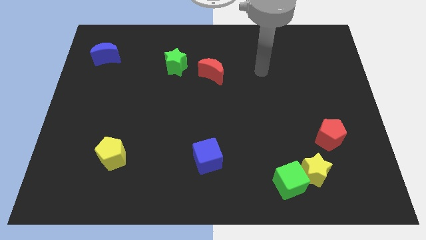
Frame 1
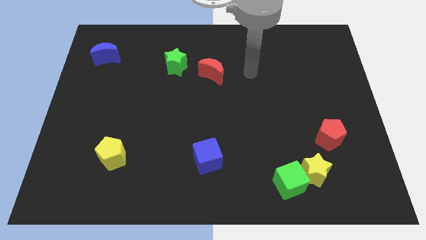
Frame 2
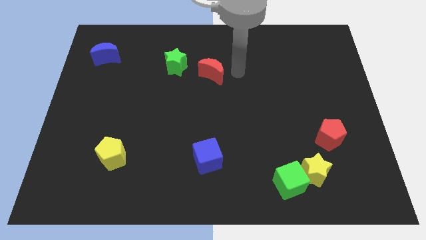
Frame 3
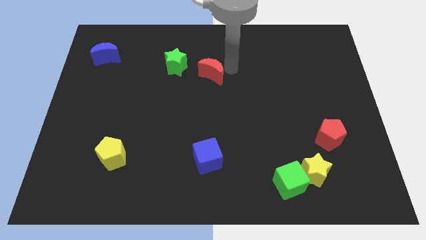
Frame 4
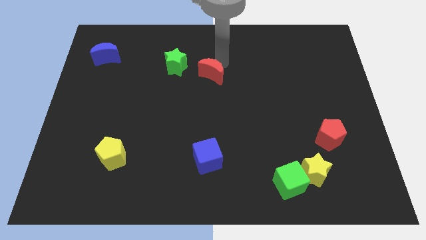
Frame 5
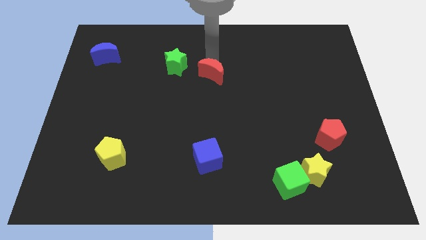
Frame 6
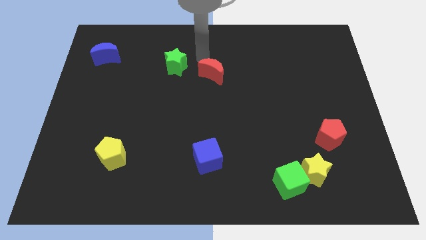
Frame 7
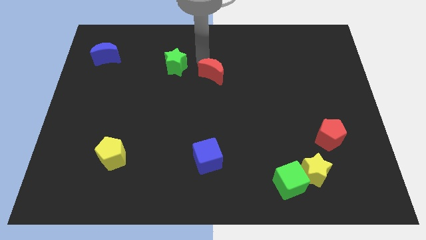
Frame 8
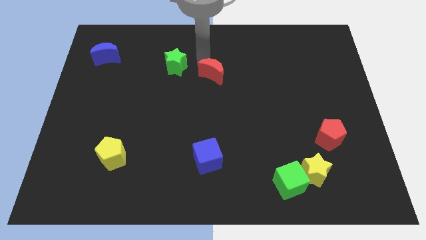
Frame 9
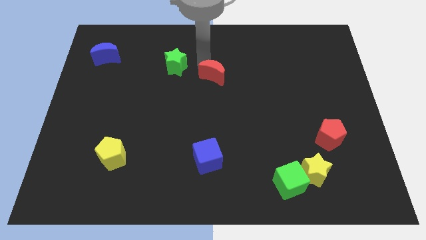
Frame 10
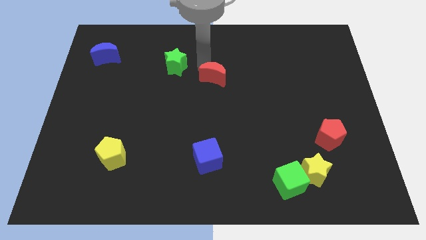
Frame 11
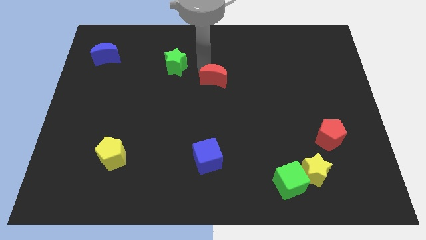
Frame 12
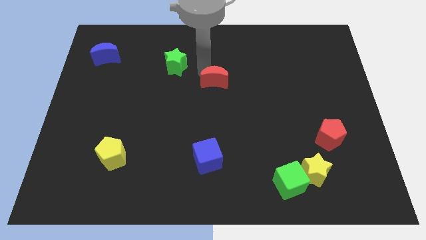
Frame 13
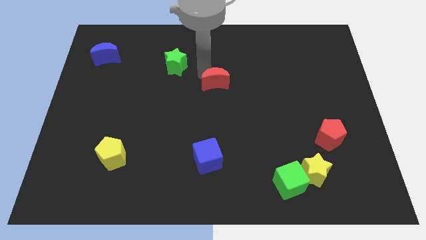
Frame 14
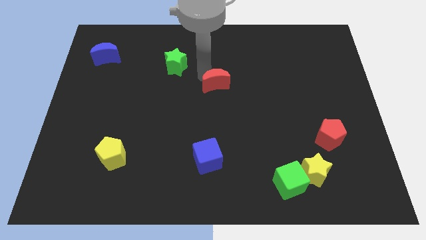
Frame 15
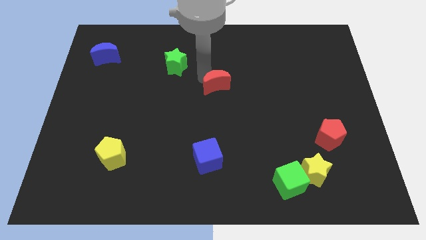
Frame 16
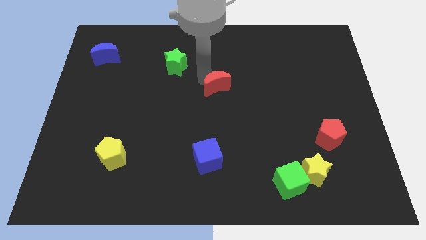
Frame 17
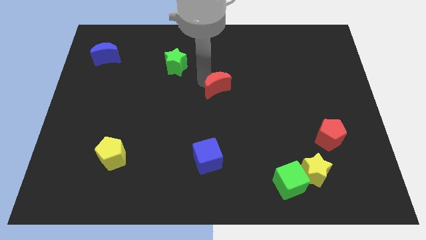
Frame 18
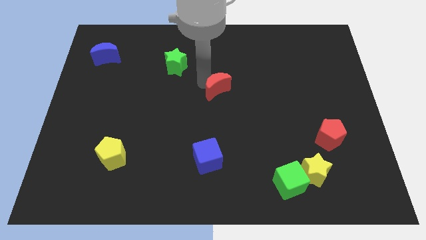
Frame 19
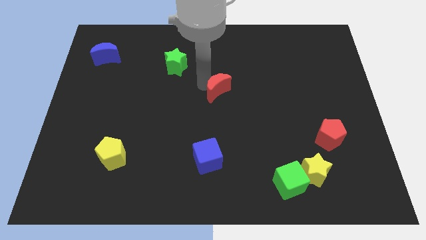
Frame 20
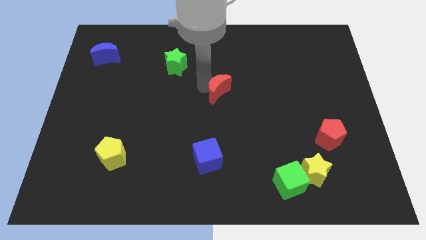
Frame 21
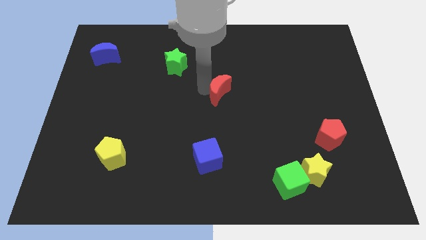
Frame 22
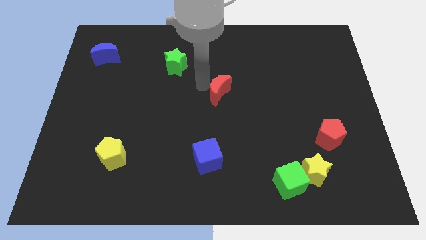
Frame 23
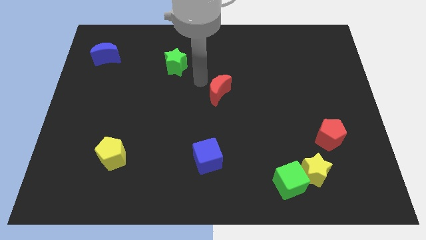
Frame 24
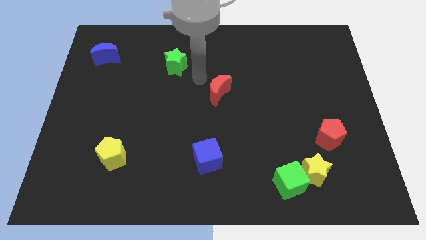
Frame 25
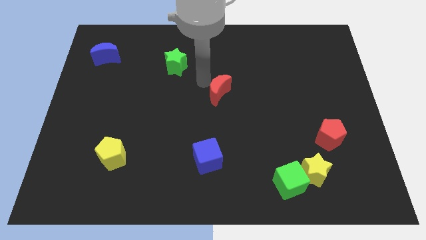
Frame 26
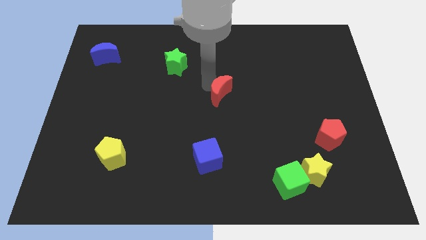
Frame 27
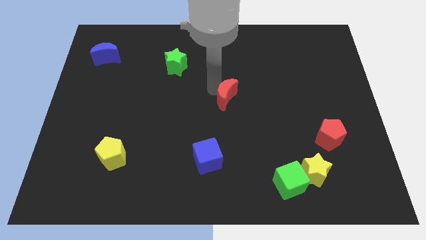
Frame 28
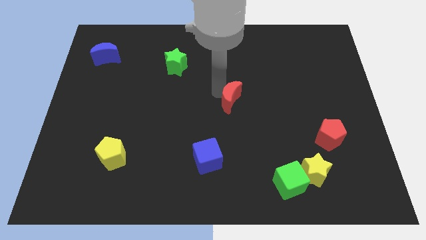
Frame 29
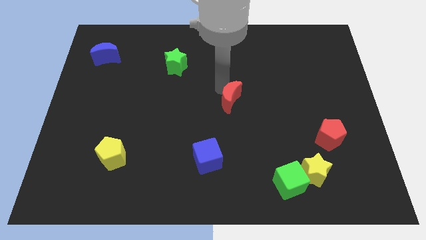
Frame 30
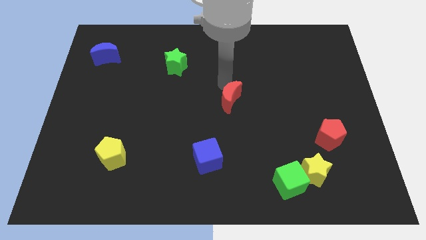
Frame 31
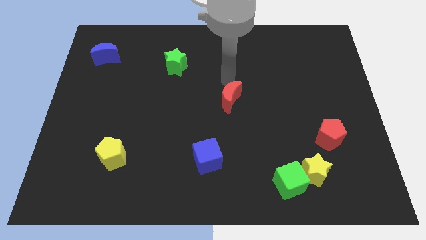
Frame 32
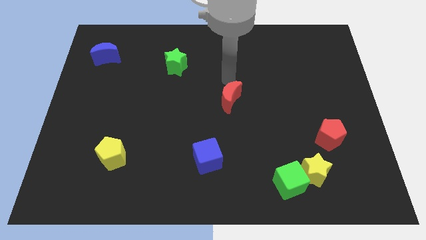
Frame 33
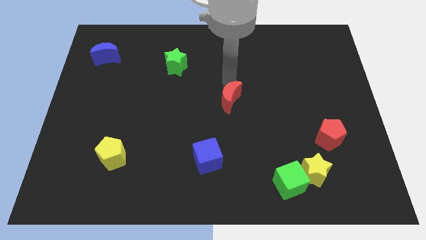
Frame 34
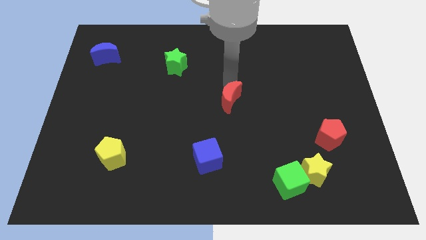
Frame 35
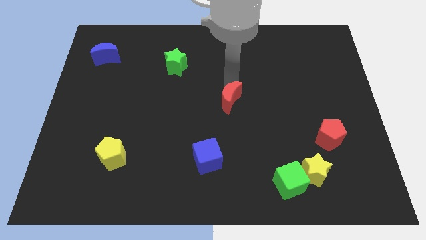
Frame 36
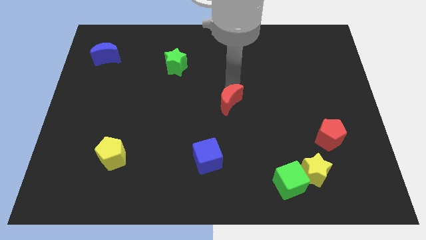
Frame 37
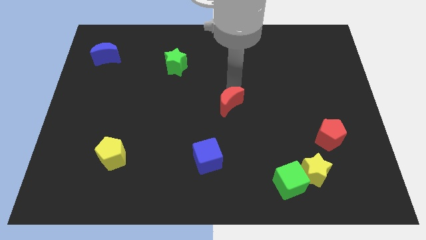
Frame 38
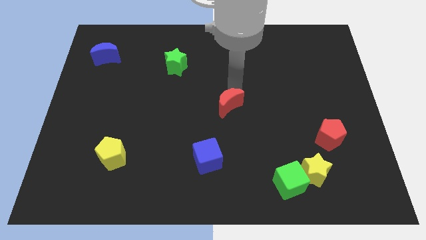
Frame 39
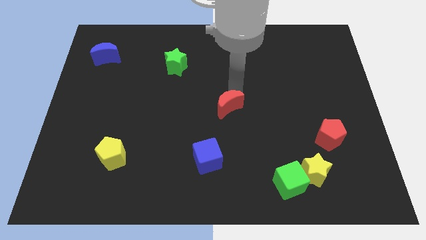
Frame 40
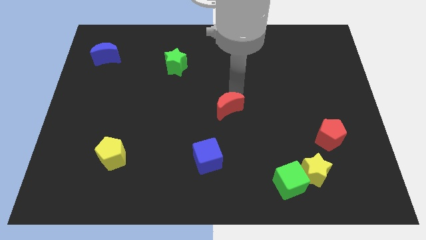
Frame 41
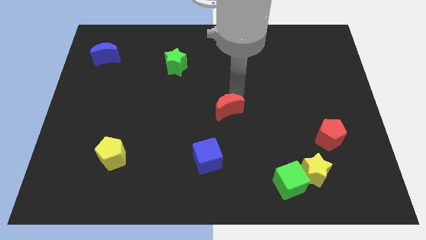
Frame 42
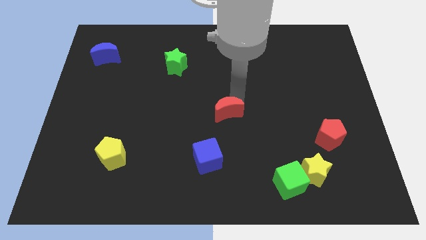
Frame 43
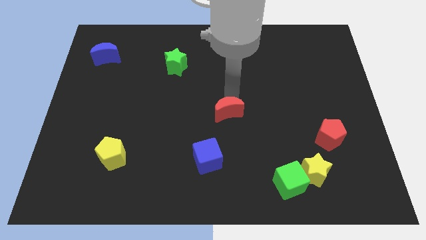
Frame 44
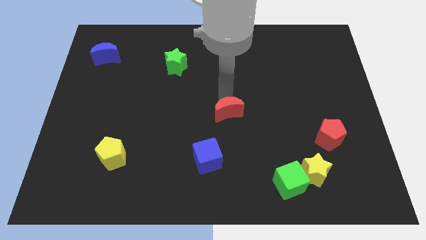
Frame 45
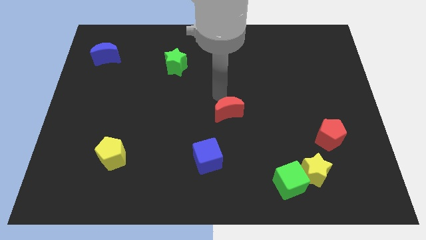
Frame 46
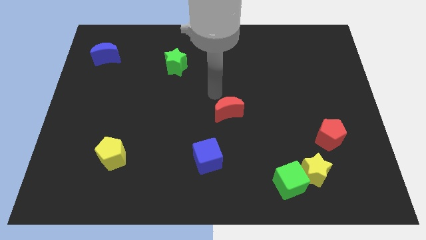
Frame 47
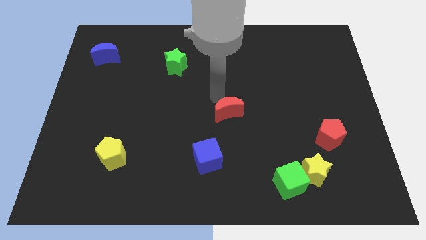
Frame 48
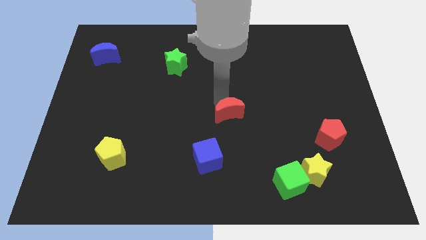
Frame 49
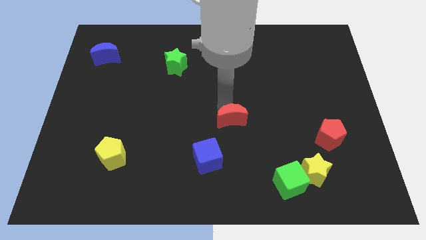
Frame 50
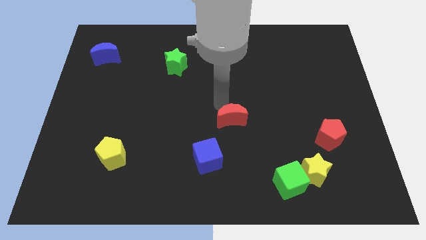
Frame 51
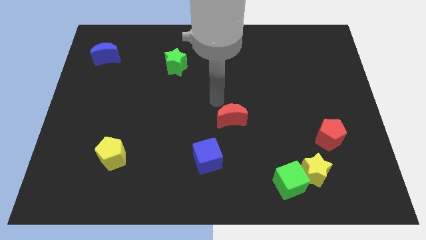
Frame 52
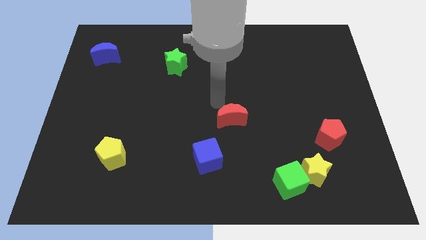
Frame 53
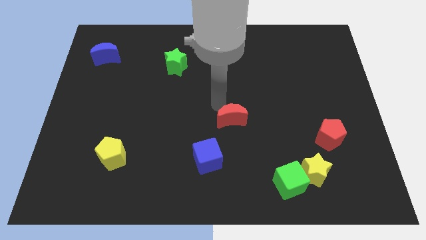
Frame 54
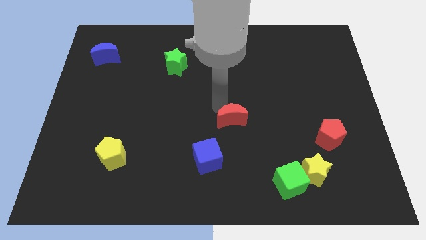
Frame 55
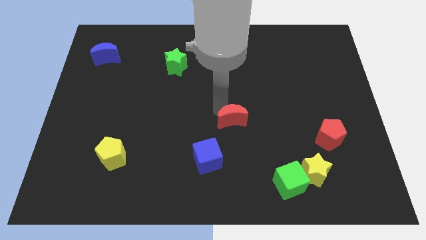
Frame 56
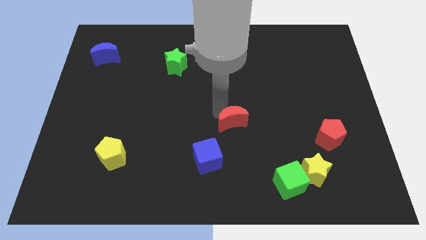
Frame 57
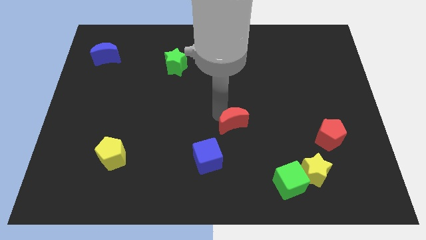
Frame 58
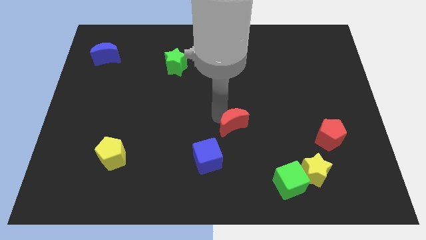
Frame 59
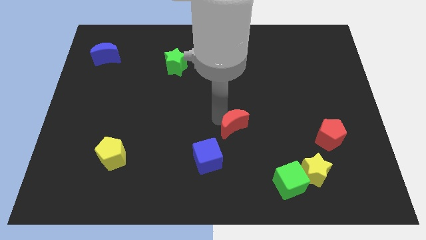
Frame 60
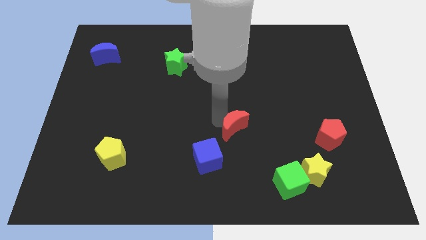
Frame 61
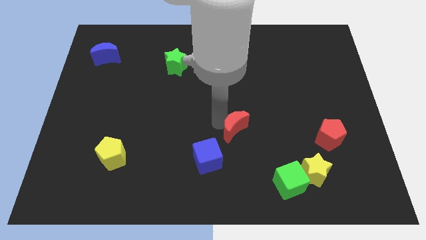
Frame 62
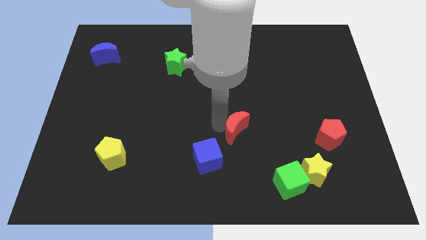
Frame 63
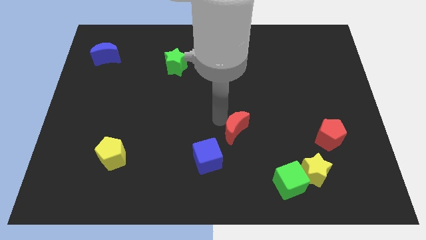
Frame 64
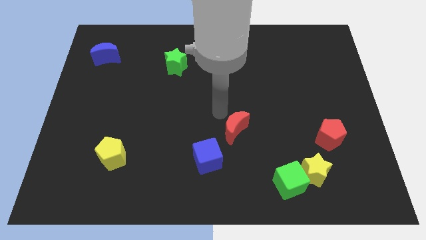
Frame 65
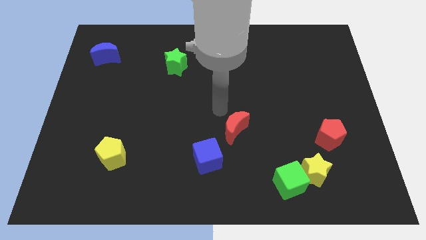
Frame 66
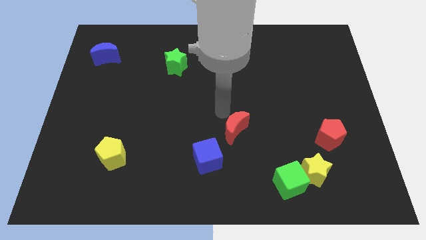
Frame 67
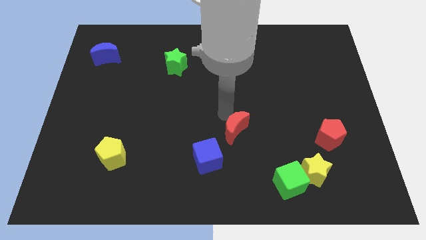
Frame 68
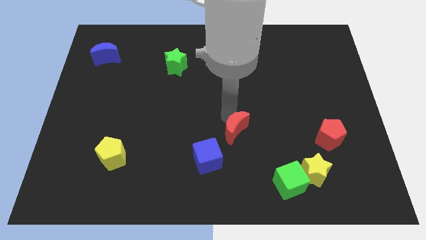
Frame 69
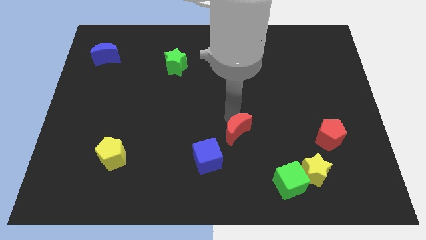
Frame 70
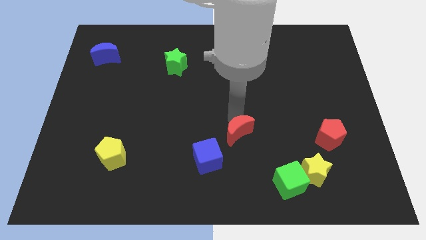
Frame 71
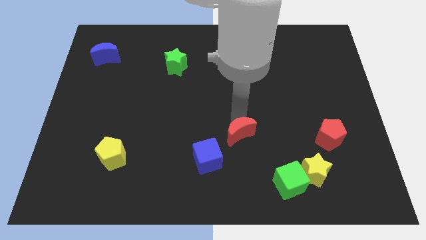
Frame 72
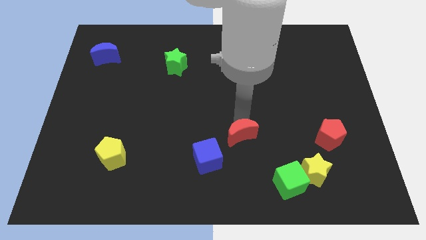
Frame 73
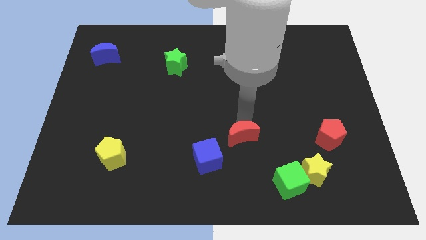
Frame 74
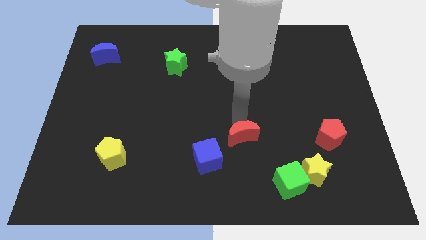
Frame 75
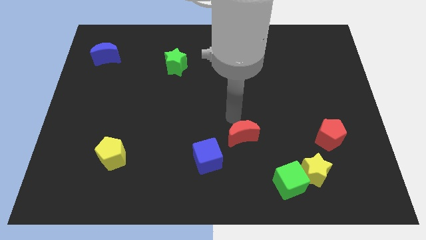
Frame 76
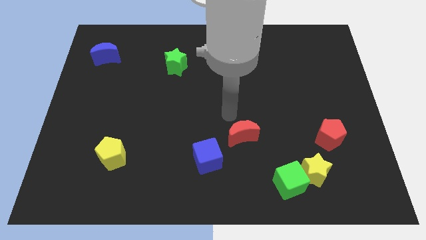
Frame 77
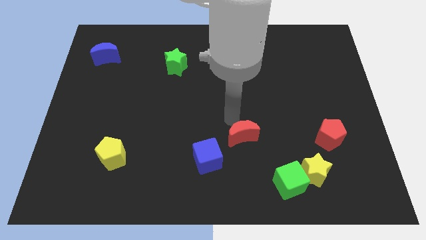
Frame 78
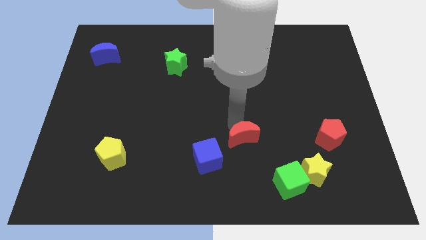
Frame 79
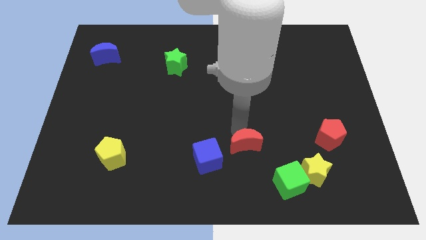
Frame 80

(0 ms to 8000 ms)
move the red moon to the right of the blue cube
